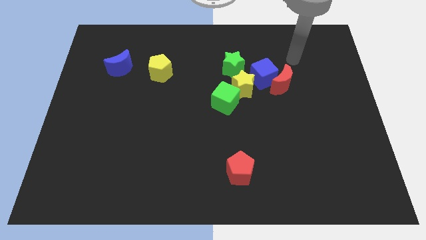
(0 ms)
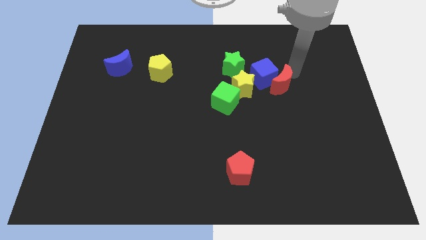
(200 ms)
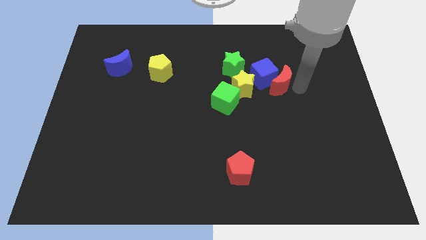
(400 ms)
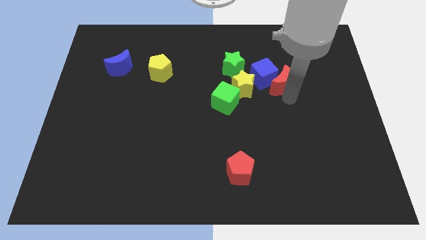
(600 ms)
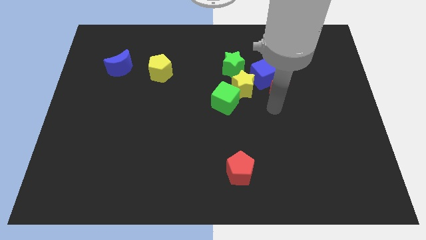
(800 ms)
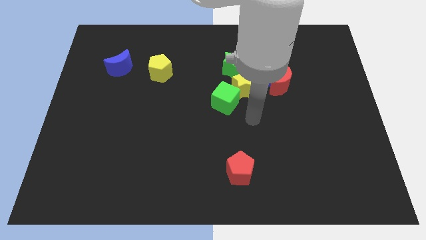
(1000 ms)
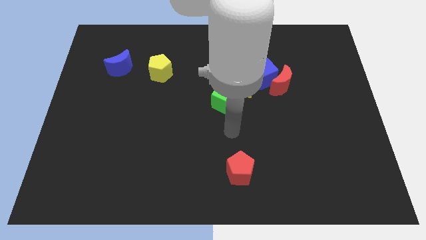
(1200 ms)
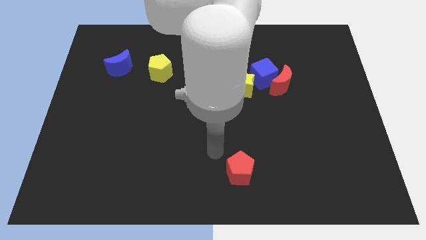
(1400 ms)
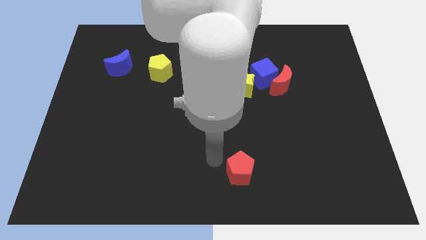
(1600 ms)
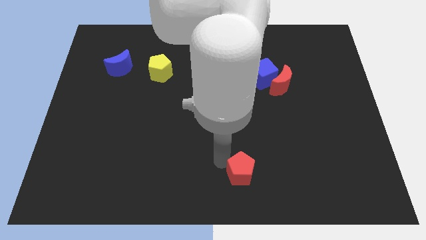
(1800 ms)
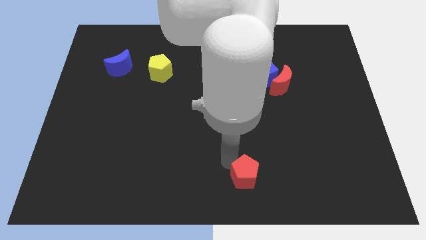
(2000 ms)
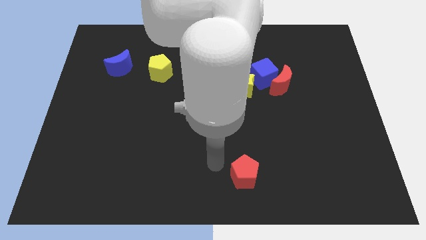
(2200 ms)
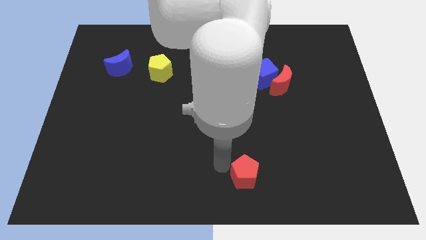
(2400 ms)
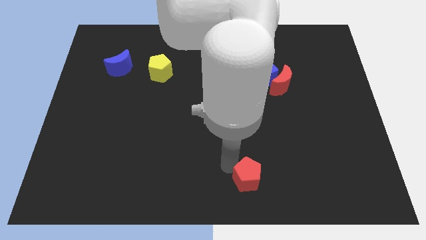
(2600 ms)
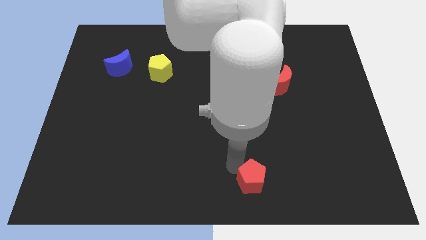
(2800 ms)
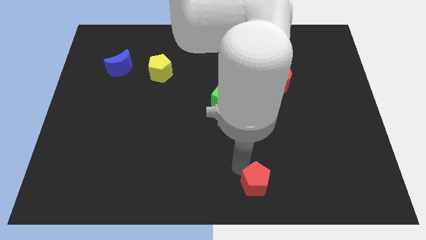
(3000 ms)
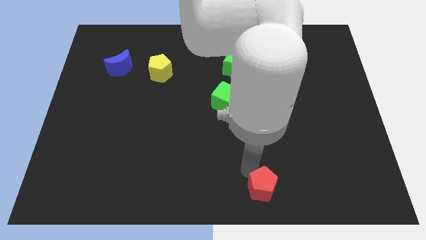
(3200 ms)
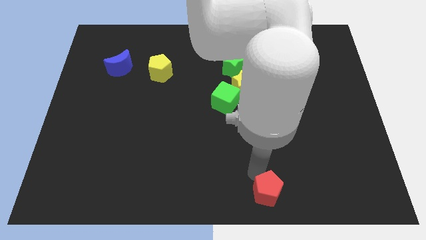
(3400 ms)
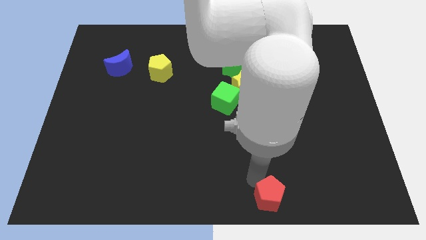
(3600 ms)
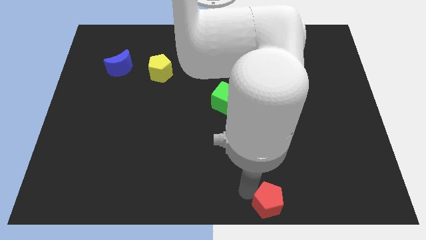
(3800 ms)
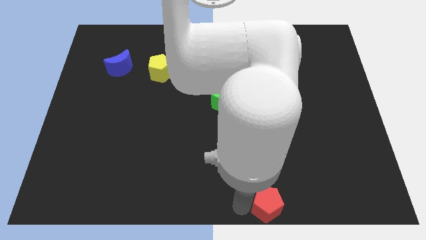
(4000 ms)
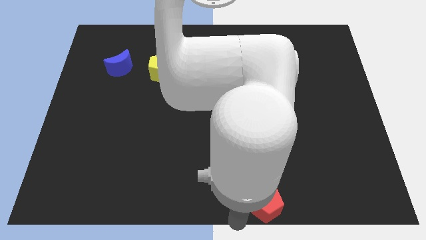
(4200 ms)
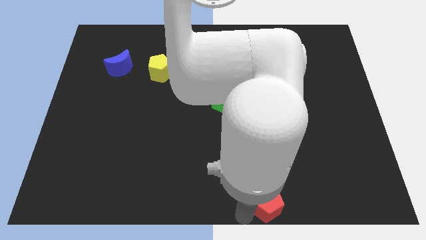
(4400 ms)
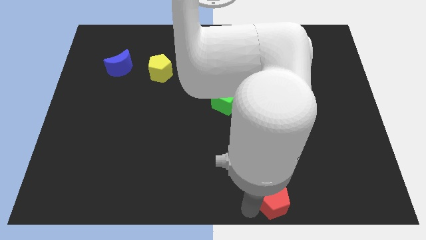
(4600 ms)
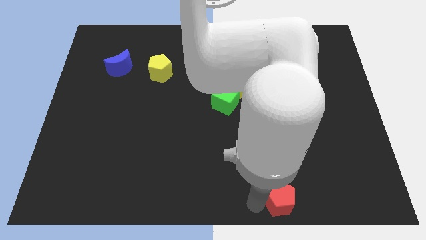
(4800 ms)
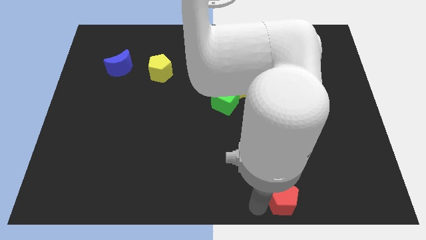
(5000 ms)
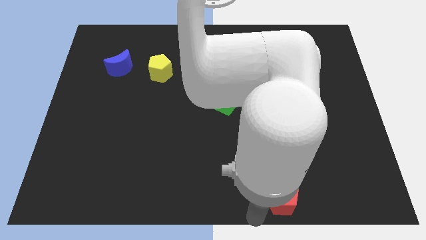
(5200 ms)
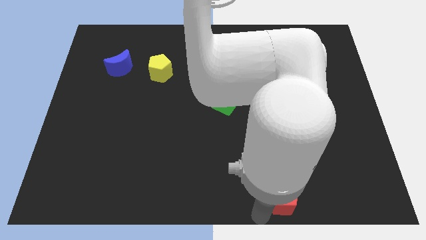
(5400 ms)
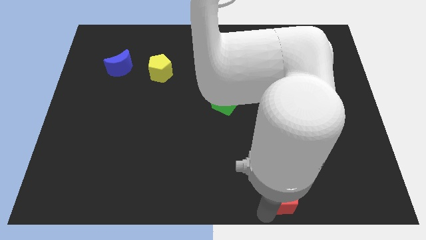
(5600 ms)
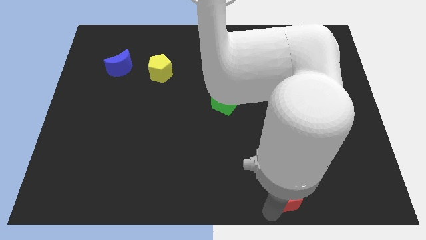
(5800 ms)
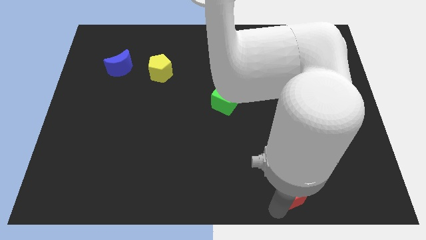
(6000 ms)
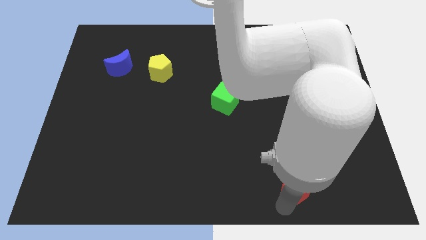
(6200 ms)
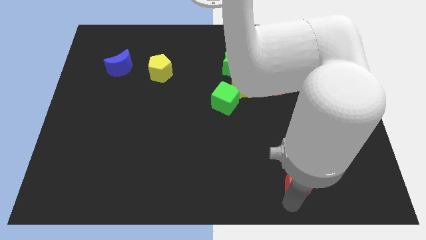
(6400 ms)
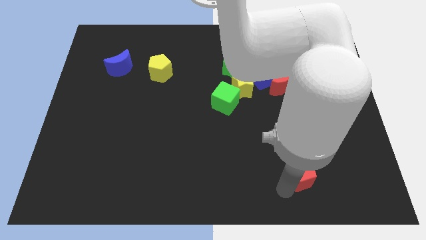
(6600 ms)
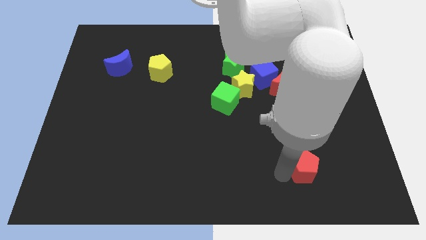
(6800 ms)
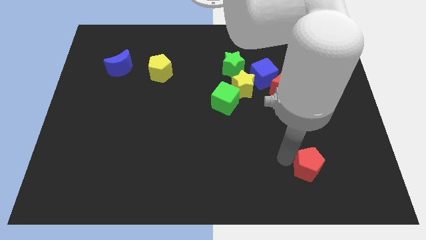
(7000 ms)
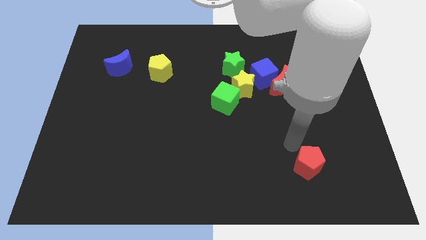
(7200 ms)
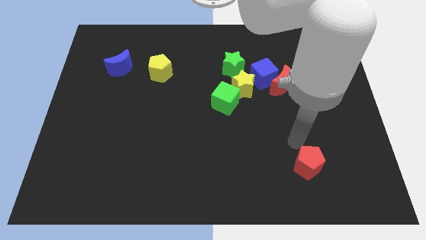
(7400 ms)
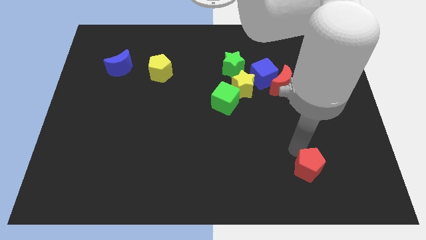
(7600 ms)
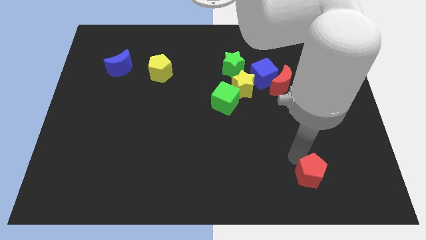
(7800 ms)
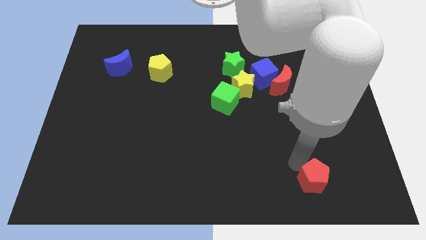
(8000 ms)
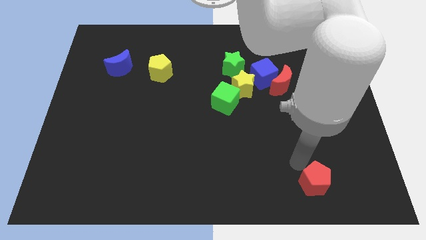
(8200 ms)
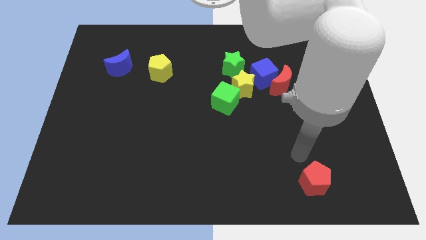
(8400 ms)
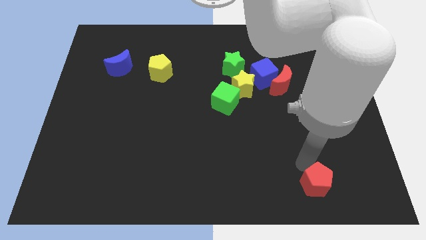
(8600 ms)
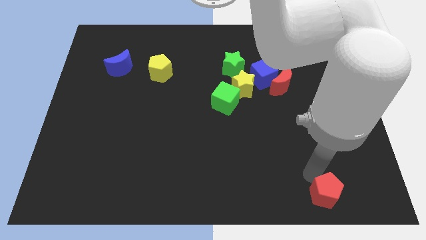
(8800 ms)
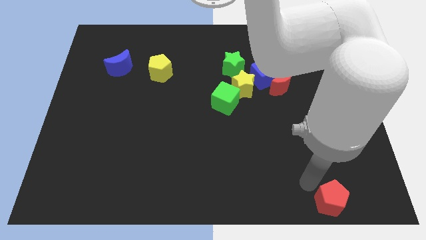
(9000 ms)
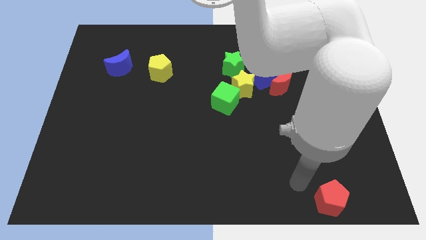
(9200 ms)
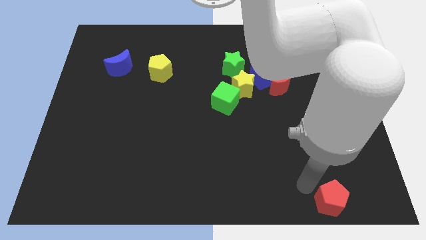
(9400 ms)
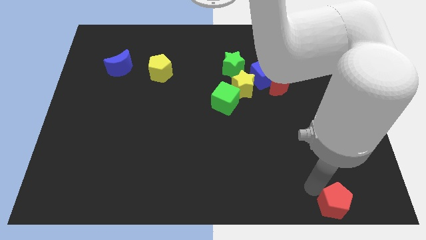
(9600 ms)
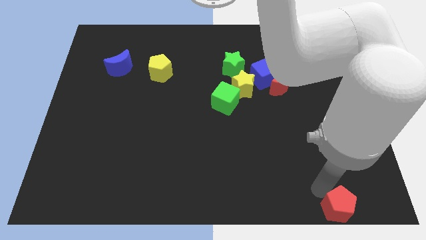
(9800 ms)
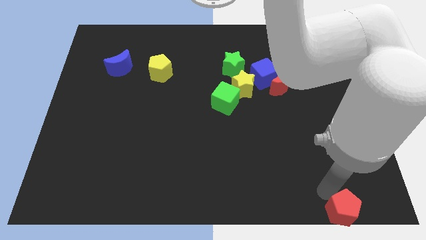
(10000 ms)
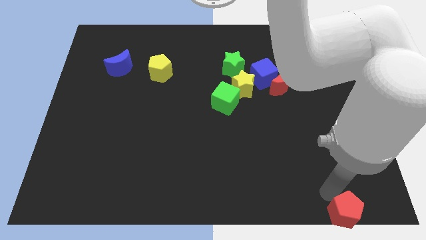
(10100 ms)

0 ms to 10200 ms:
slide the red pentagon to the lower right corner

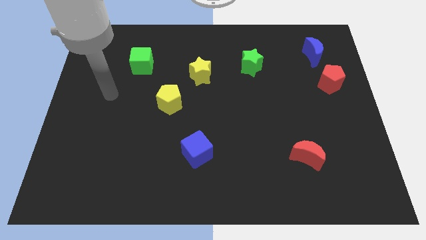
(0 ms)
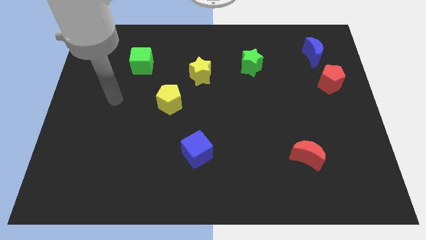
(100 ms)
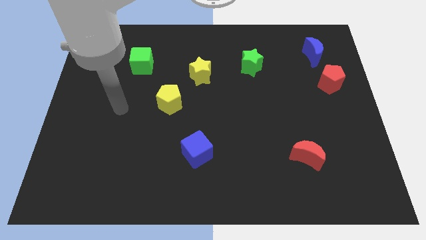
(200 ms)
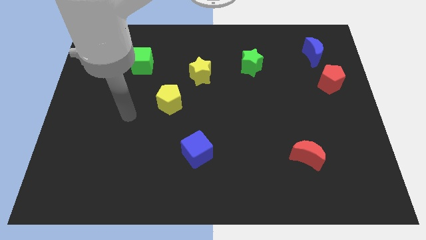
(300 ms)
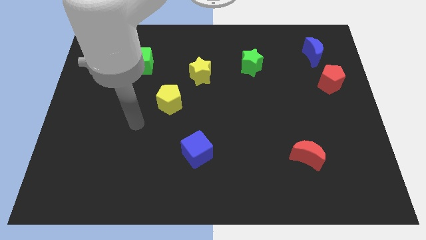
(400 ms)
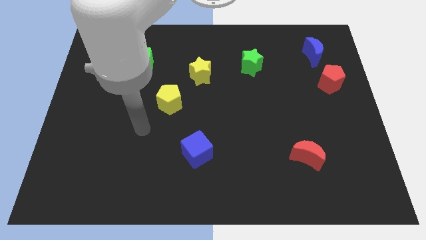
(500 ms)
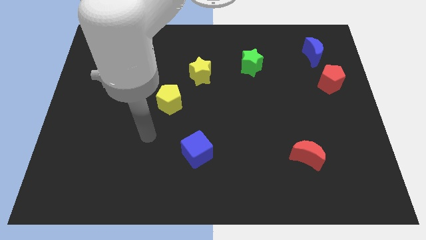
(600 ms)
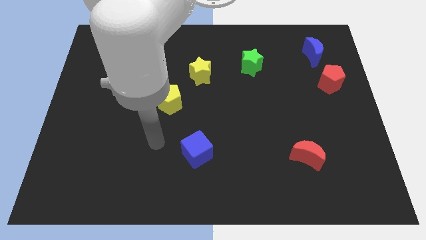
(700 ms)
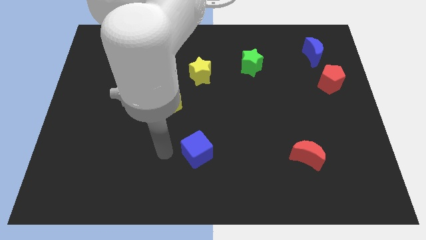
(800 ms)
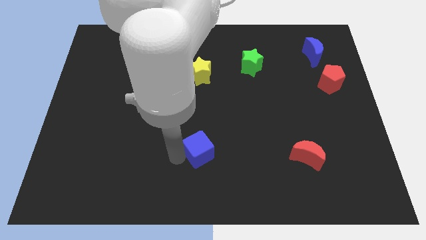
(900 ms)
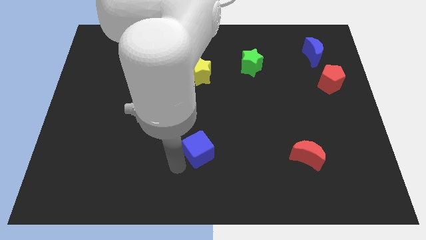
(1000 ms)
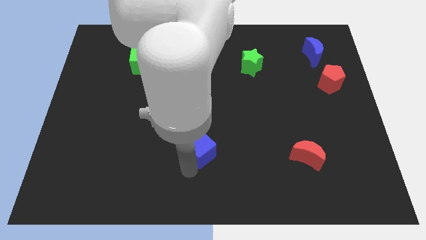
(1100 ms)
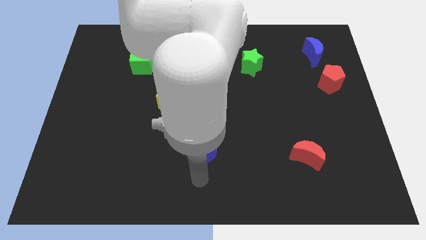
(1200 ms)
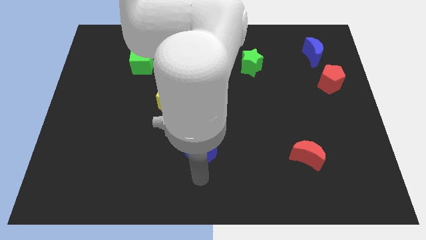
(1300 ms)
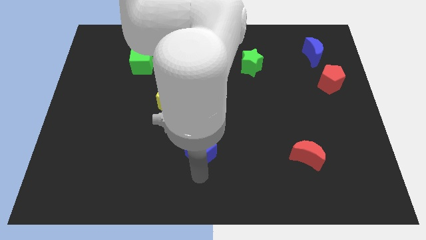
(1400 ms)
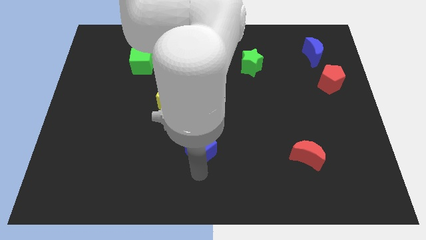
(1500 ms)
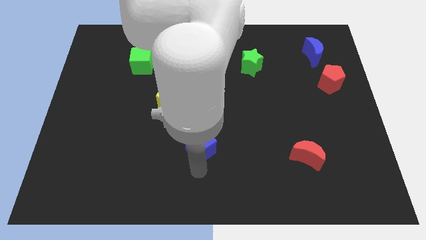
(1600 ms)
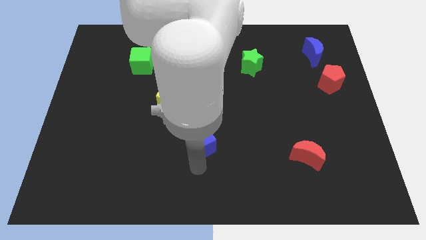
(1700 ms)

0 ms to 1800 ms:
put the blue cube to the middle
